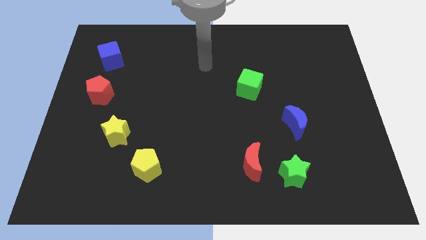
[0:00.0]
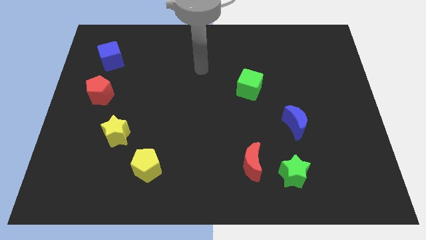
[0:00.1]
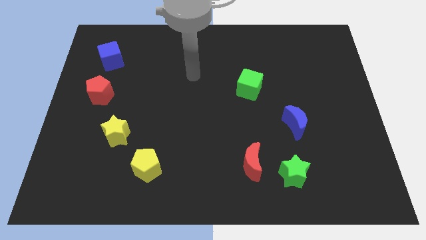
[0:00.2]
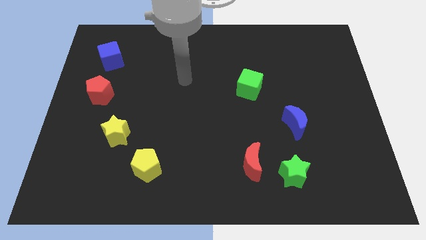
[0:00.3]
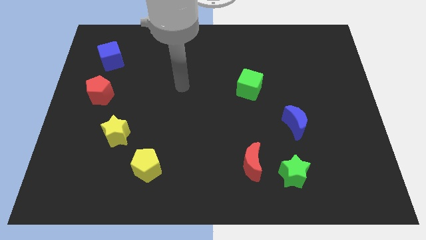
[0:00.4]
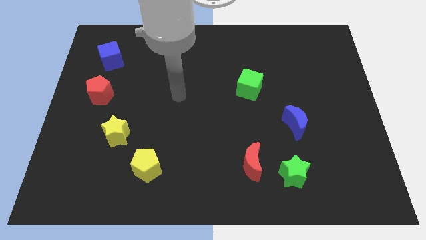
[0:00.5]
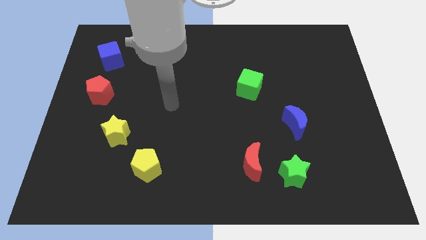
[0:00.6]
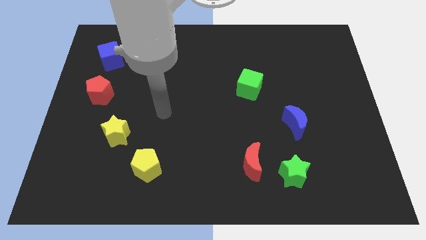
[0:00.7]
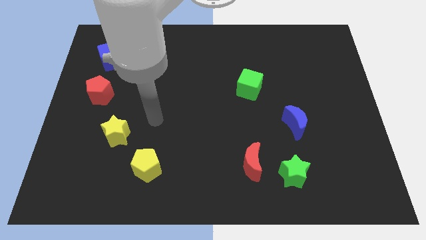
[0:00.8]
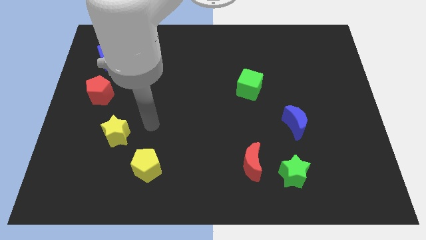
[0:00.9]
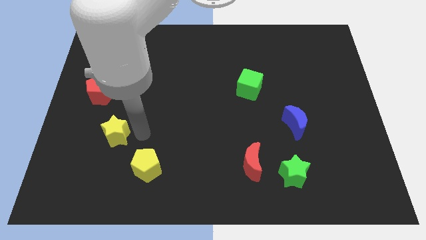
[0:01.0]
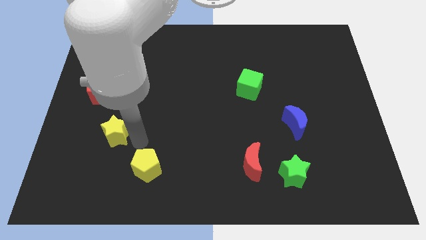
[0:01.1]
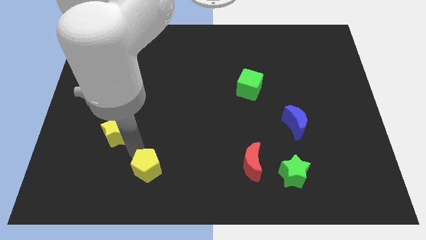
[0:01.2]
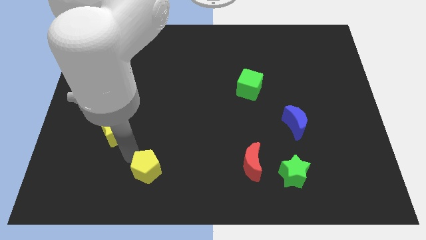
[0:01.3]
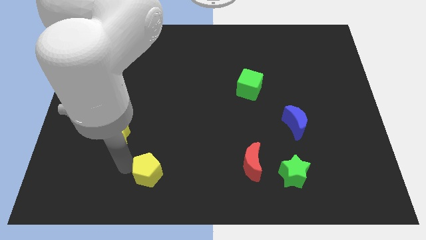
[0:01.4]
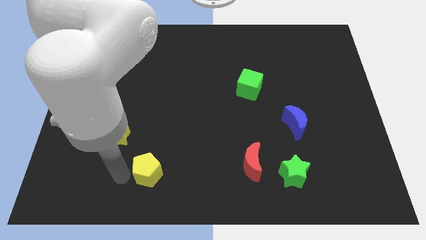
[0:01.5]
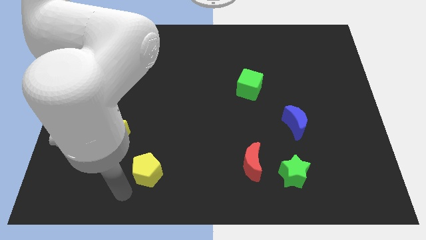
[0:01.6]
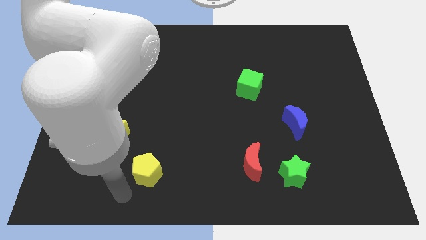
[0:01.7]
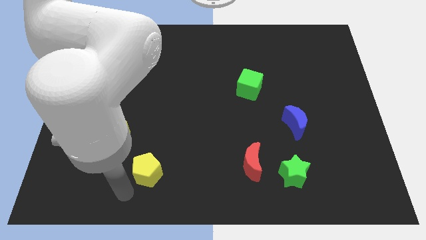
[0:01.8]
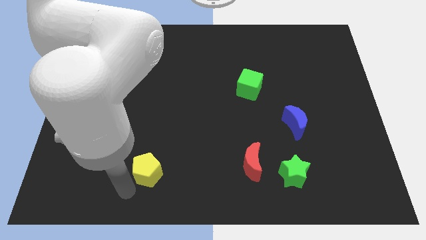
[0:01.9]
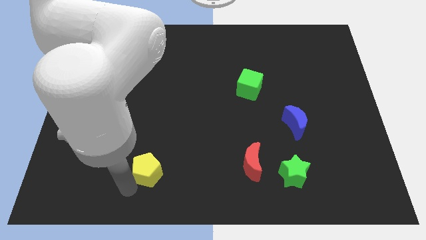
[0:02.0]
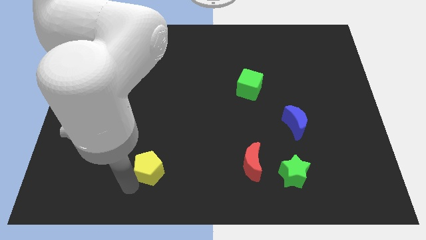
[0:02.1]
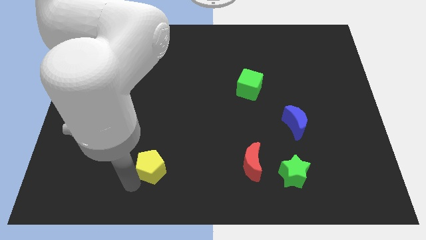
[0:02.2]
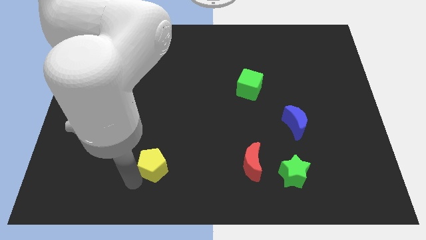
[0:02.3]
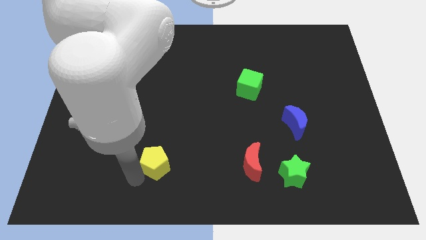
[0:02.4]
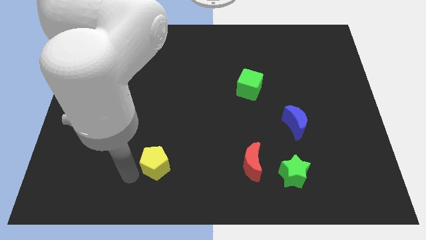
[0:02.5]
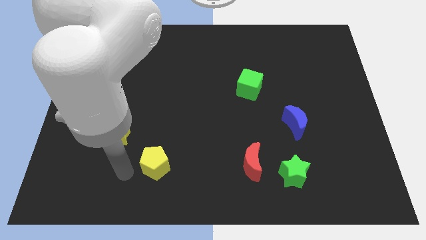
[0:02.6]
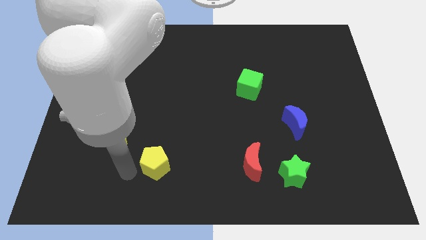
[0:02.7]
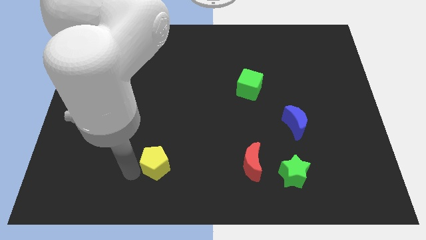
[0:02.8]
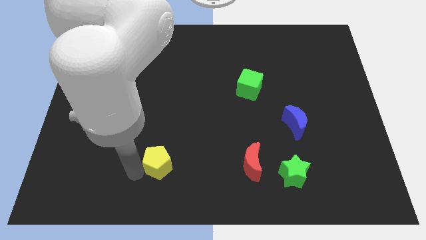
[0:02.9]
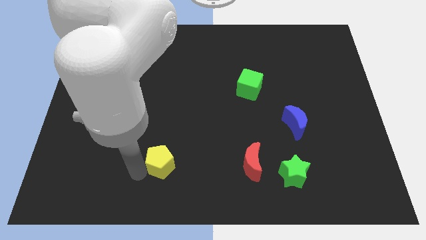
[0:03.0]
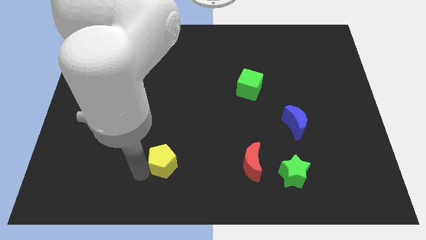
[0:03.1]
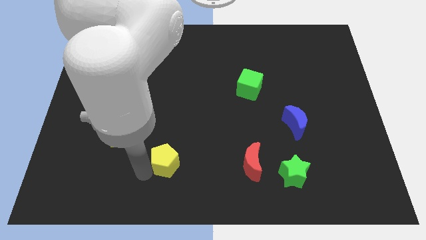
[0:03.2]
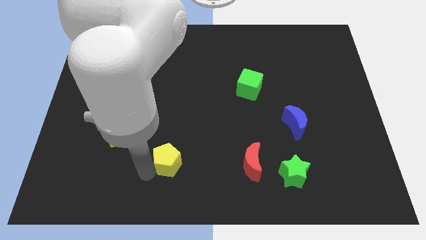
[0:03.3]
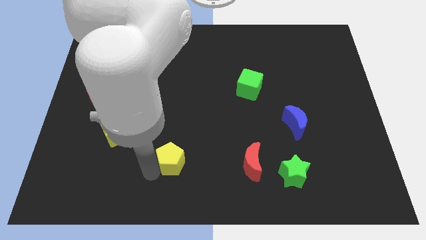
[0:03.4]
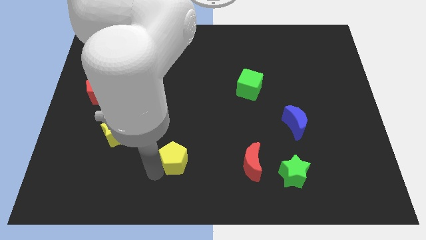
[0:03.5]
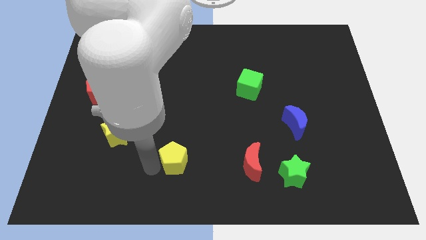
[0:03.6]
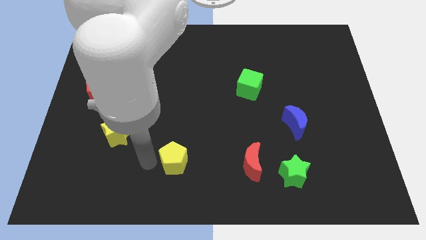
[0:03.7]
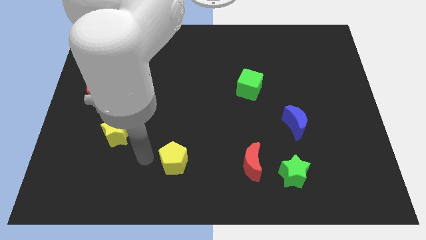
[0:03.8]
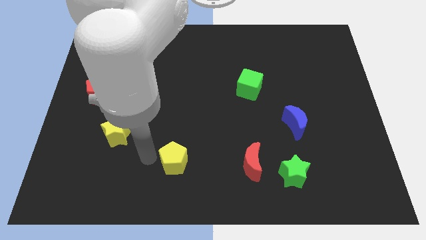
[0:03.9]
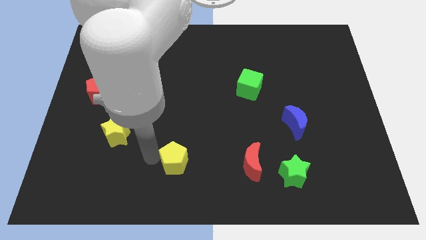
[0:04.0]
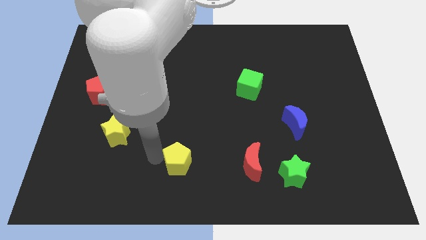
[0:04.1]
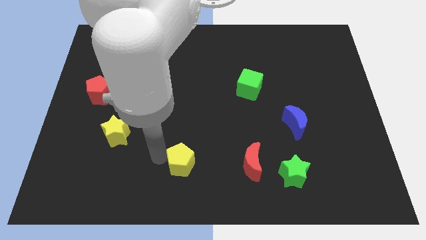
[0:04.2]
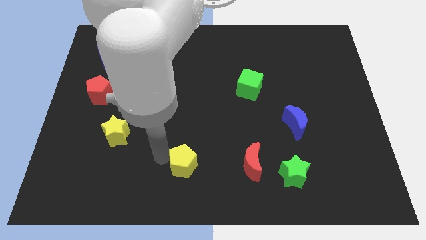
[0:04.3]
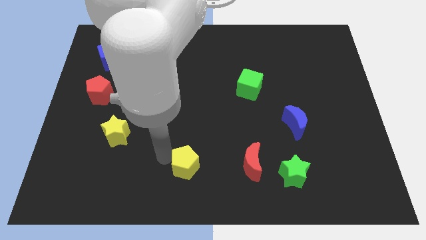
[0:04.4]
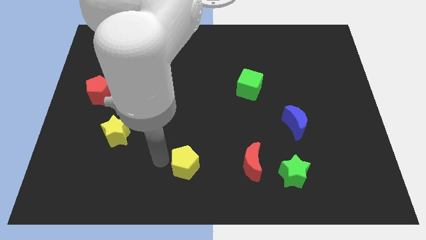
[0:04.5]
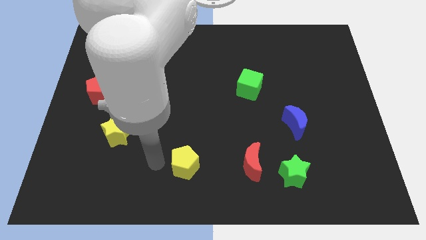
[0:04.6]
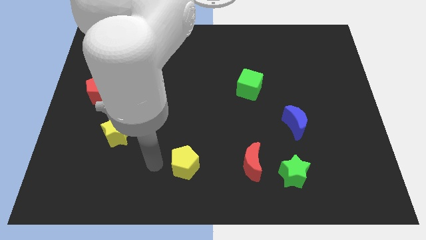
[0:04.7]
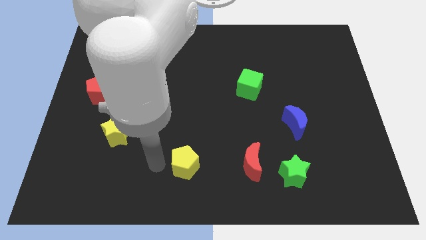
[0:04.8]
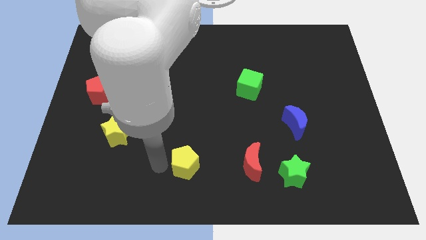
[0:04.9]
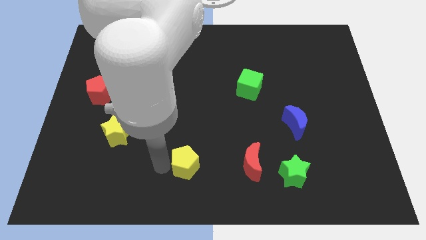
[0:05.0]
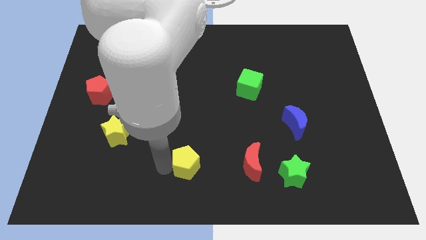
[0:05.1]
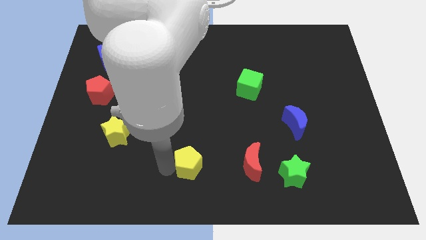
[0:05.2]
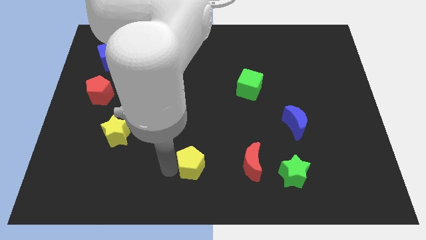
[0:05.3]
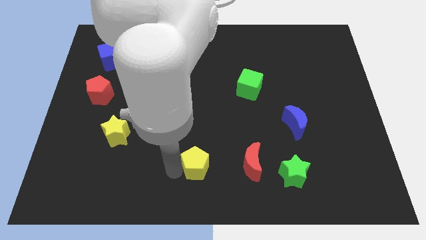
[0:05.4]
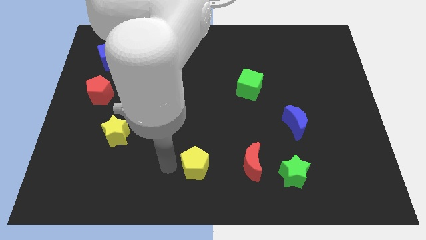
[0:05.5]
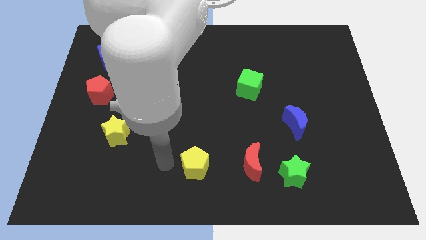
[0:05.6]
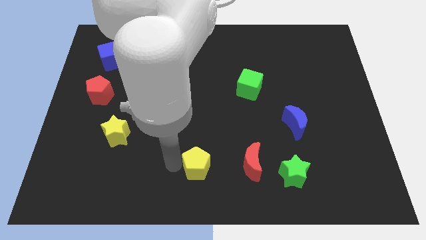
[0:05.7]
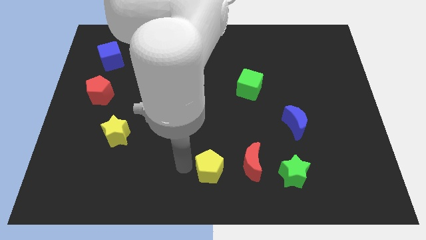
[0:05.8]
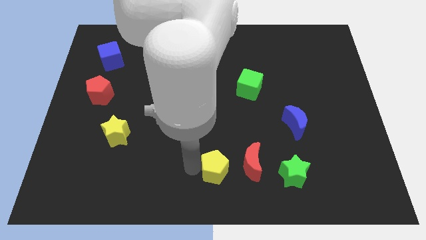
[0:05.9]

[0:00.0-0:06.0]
move the yellow pentagon just left of the green star

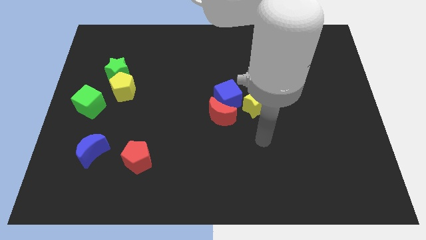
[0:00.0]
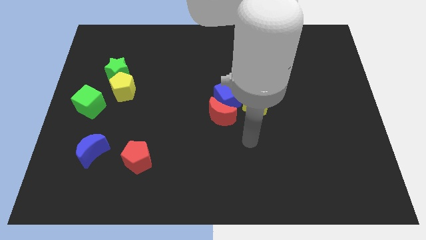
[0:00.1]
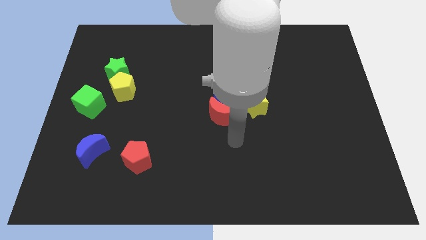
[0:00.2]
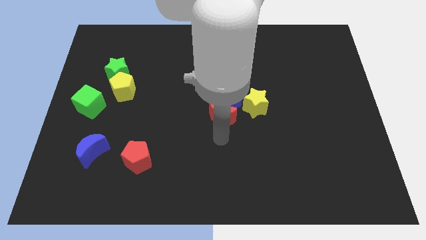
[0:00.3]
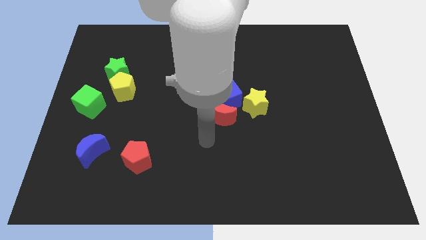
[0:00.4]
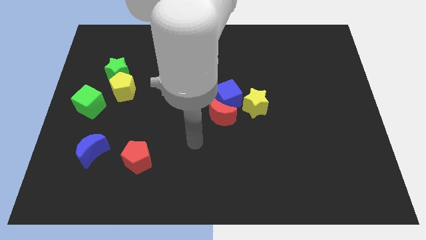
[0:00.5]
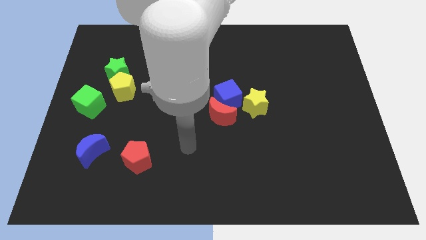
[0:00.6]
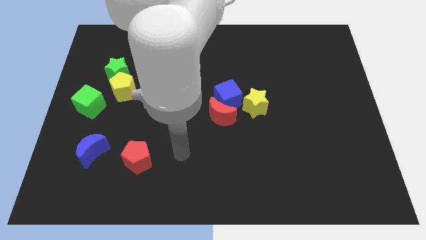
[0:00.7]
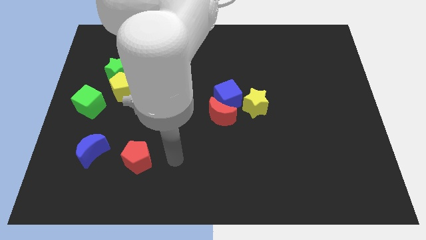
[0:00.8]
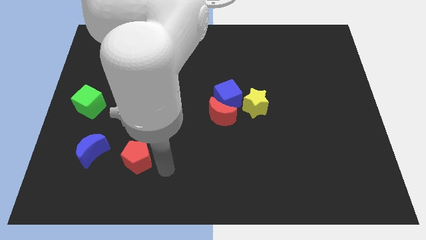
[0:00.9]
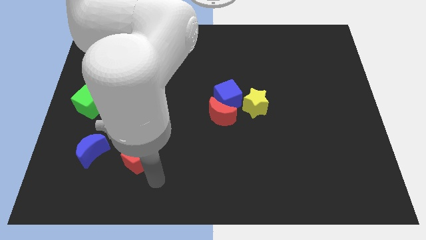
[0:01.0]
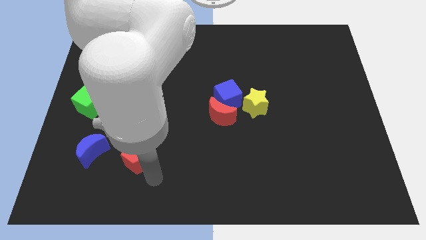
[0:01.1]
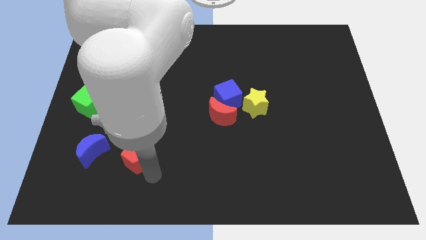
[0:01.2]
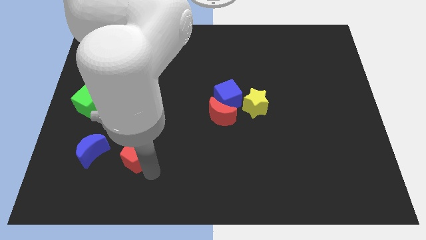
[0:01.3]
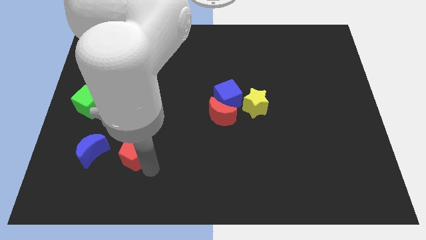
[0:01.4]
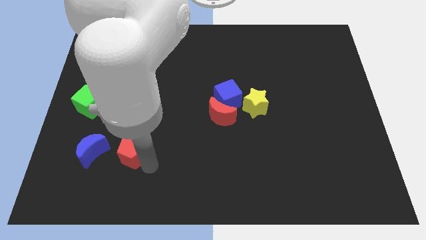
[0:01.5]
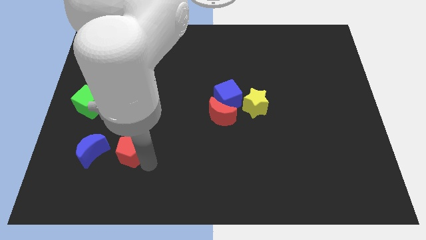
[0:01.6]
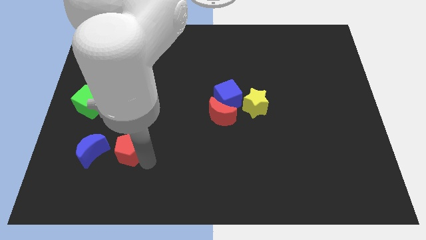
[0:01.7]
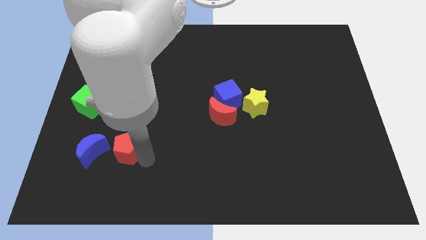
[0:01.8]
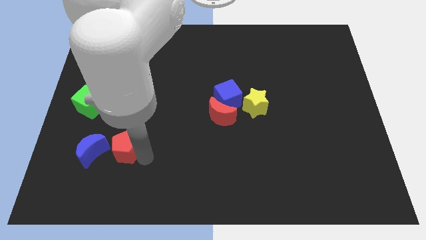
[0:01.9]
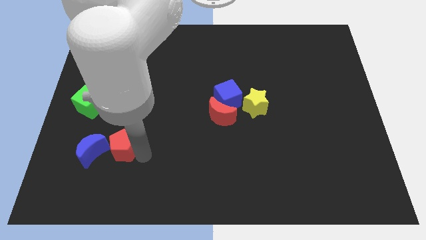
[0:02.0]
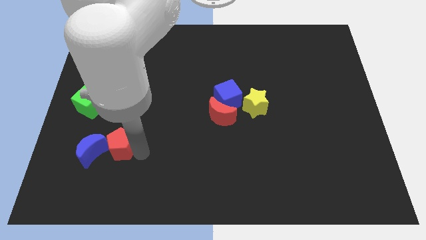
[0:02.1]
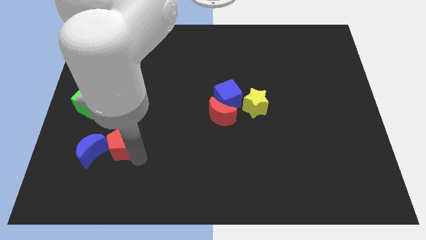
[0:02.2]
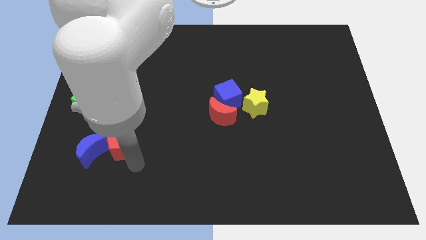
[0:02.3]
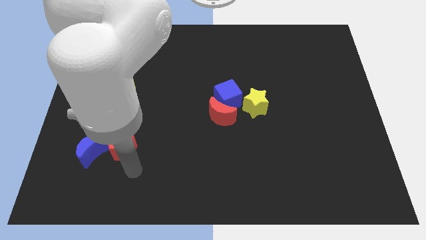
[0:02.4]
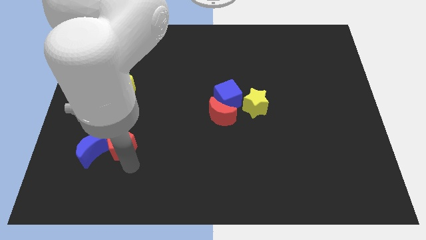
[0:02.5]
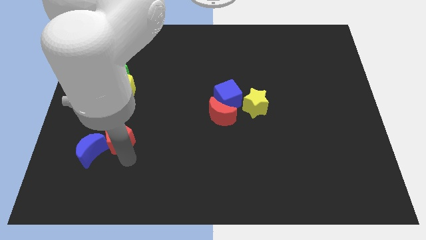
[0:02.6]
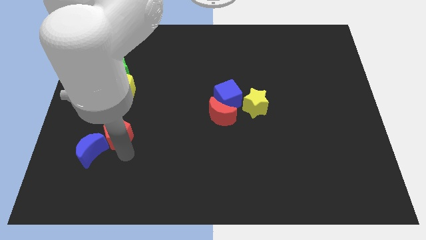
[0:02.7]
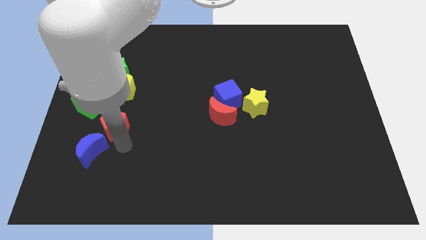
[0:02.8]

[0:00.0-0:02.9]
slide the red pentagon above the blue moon
